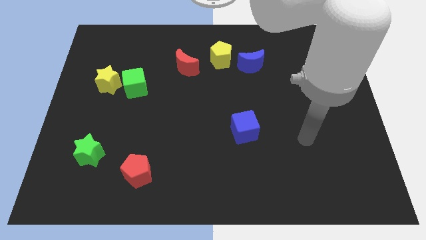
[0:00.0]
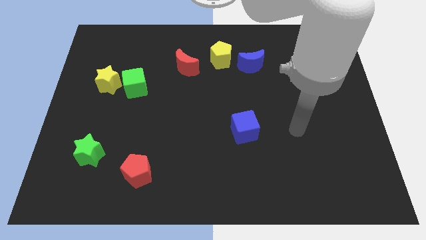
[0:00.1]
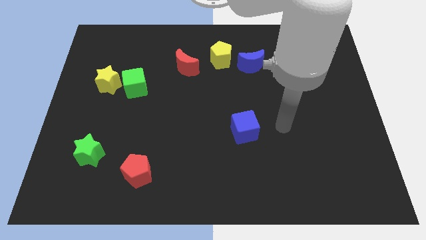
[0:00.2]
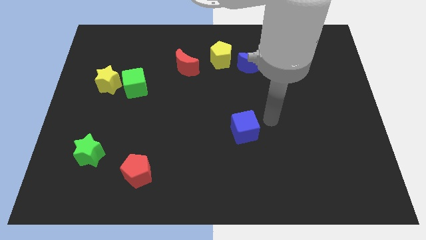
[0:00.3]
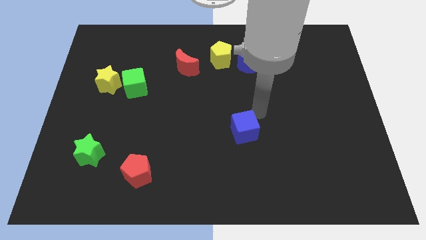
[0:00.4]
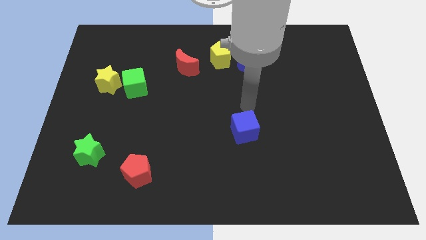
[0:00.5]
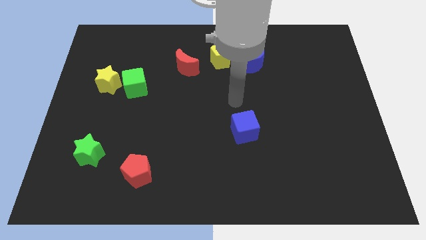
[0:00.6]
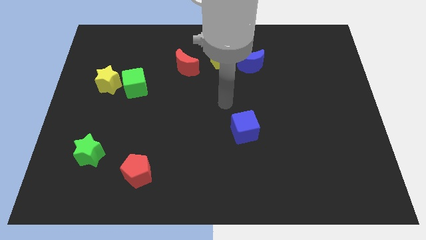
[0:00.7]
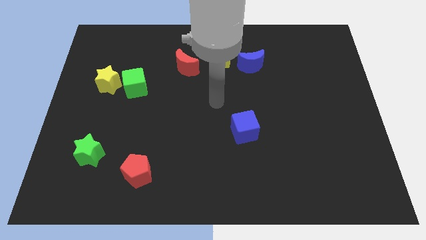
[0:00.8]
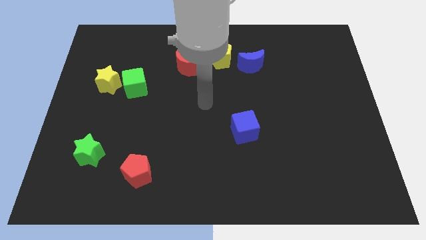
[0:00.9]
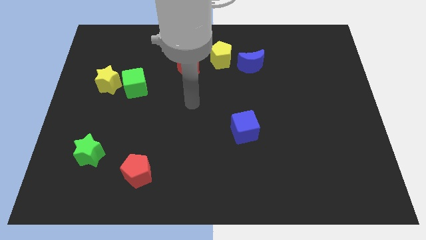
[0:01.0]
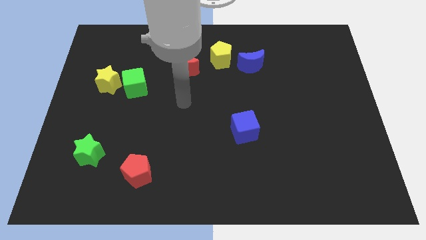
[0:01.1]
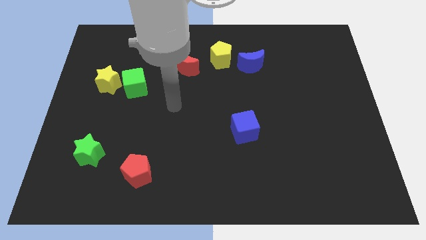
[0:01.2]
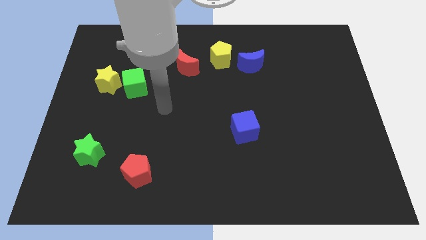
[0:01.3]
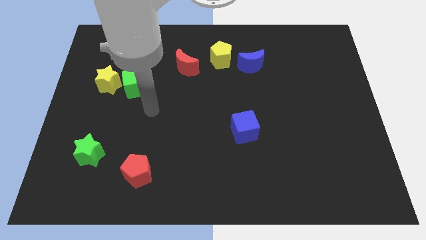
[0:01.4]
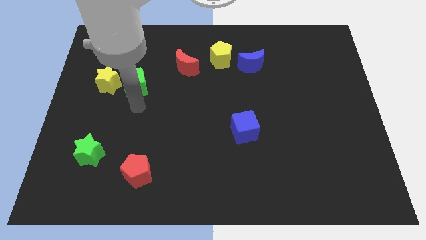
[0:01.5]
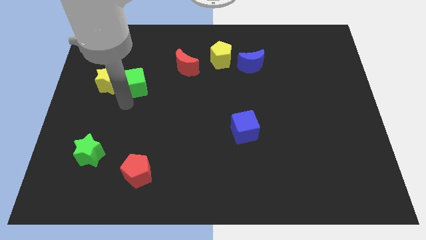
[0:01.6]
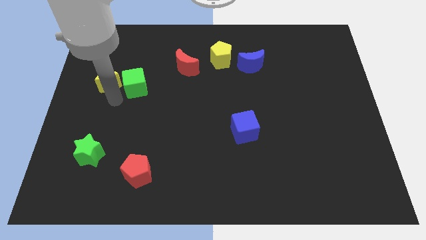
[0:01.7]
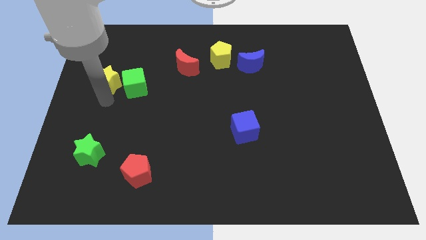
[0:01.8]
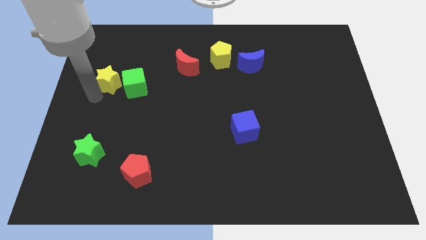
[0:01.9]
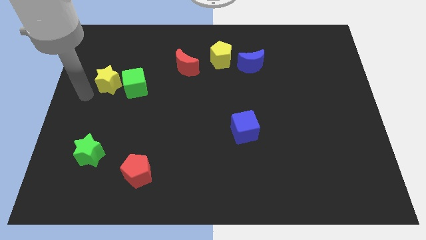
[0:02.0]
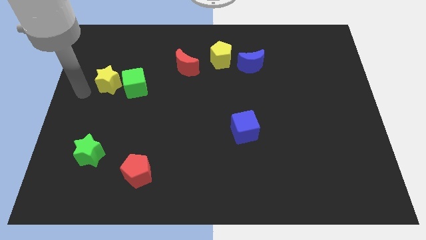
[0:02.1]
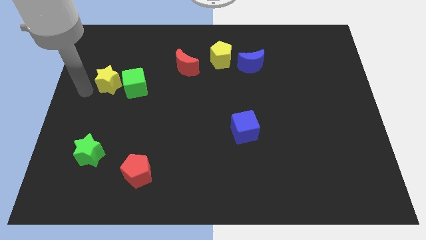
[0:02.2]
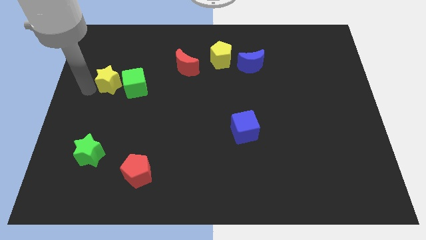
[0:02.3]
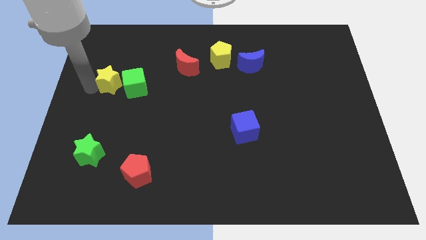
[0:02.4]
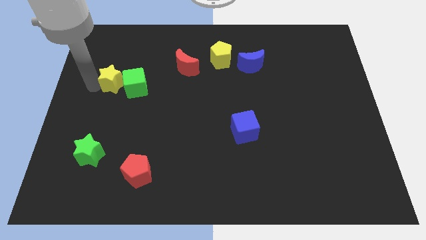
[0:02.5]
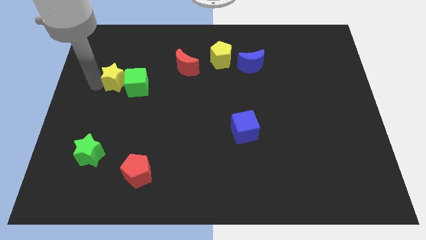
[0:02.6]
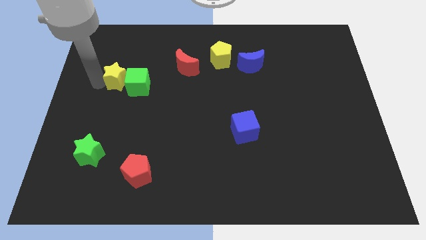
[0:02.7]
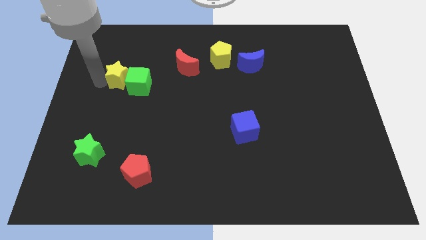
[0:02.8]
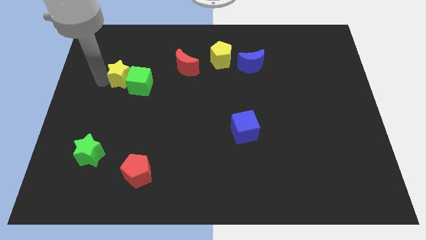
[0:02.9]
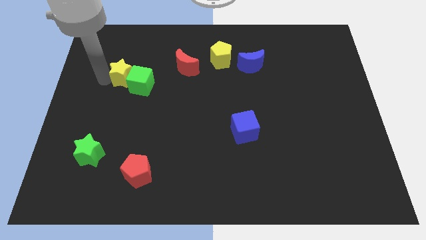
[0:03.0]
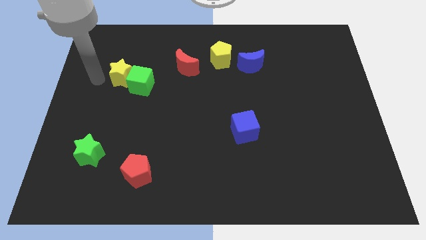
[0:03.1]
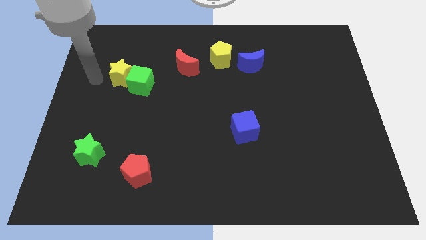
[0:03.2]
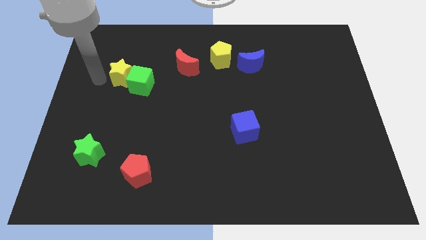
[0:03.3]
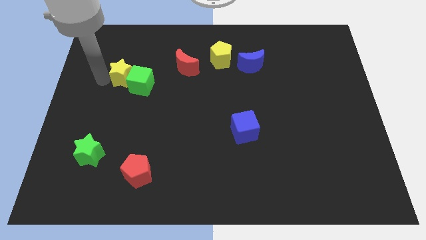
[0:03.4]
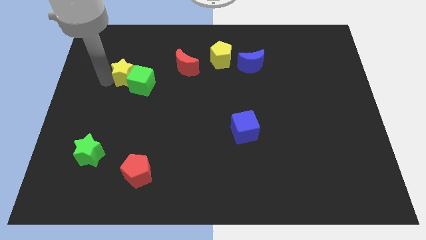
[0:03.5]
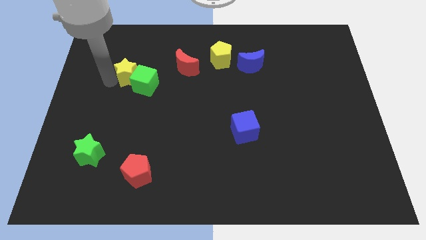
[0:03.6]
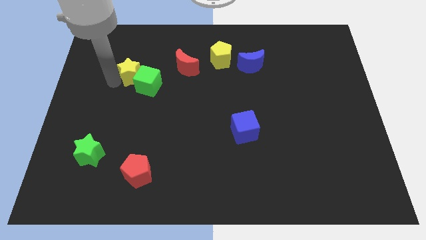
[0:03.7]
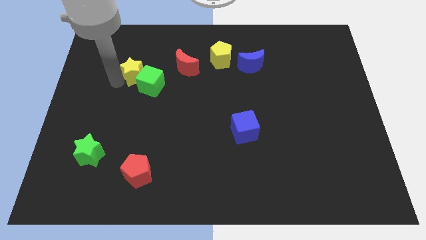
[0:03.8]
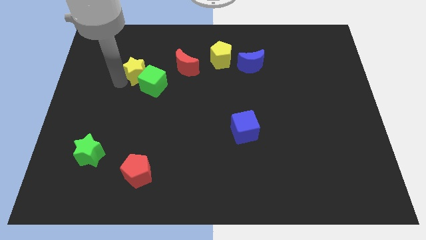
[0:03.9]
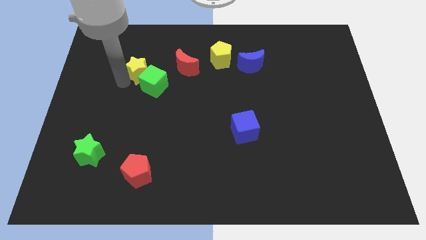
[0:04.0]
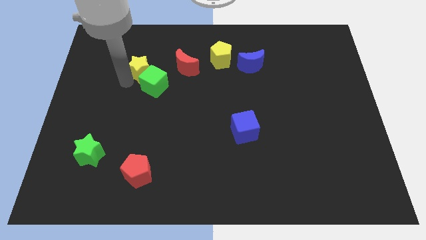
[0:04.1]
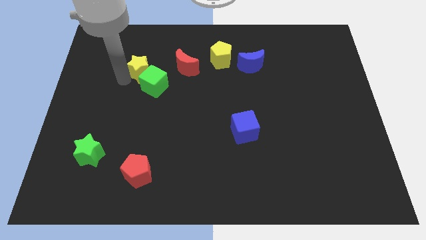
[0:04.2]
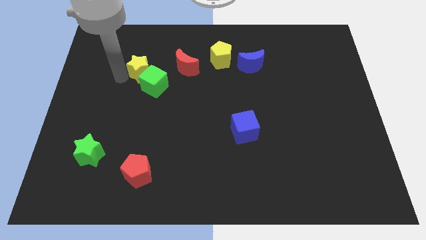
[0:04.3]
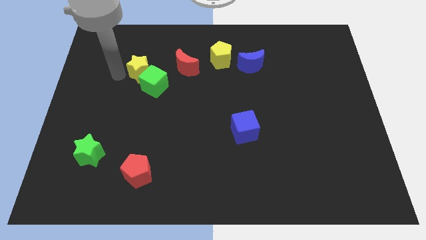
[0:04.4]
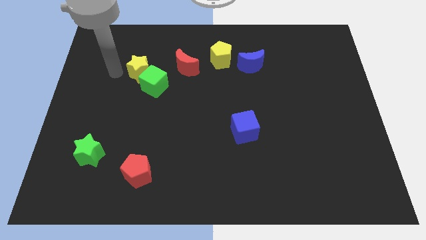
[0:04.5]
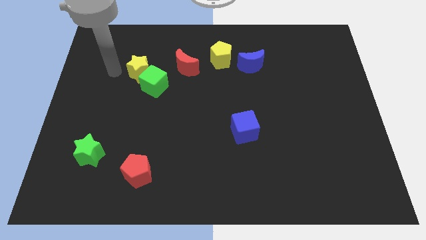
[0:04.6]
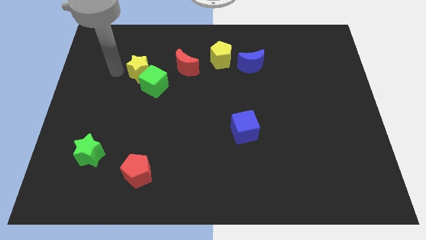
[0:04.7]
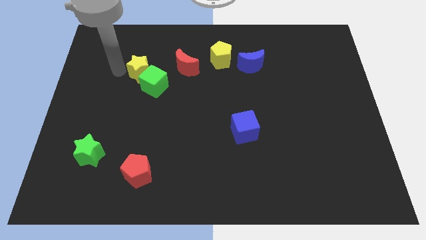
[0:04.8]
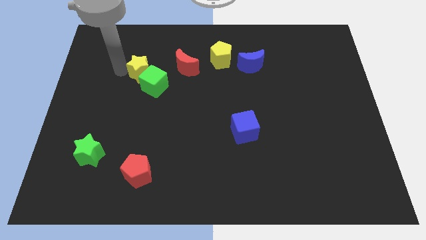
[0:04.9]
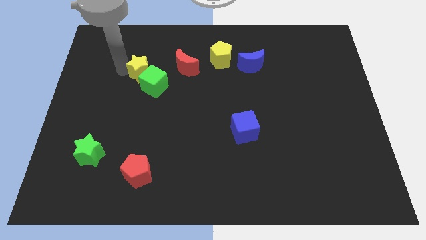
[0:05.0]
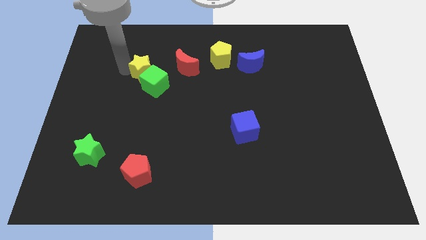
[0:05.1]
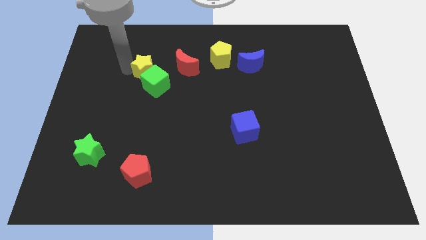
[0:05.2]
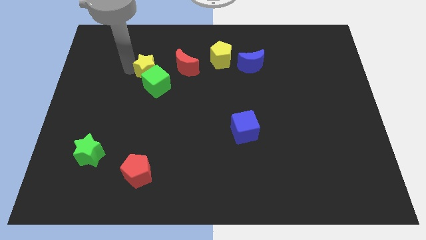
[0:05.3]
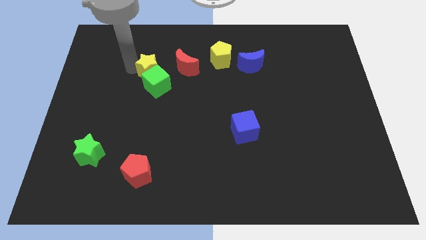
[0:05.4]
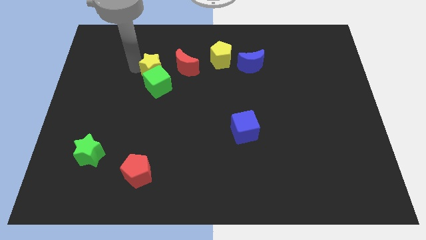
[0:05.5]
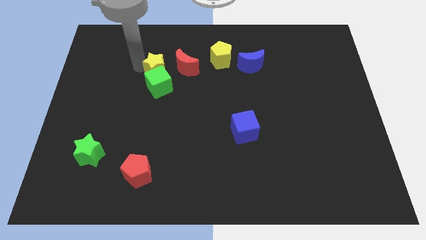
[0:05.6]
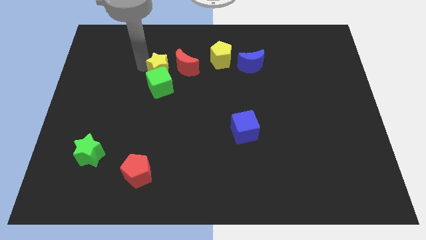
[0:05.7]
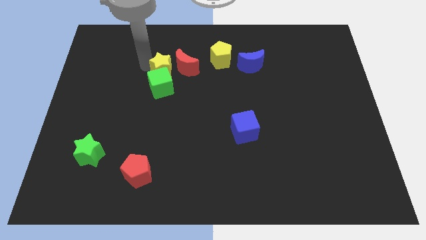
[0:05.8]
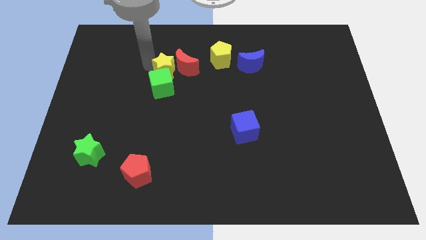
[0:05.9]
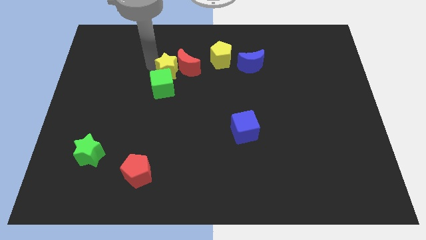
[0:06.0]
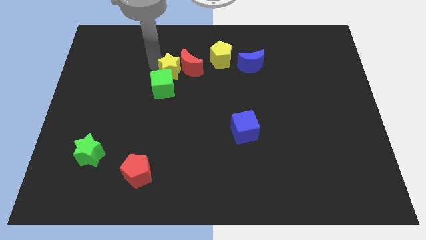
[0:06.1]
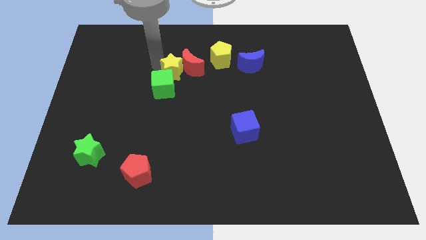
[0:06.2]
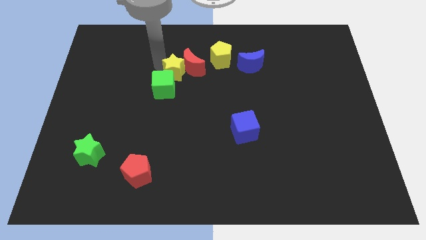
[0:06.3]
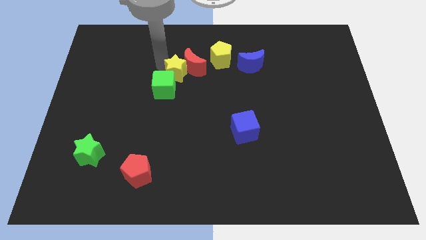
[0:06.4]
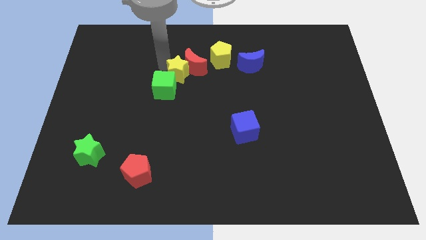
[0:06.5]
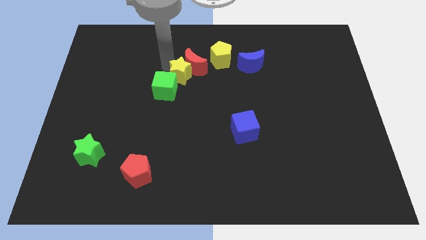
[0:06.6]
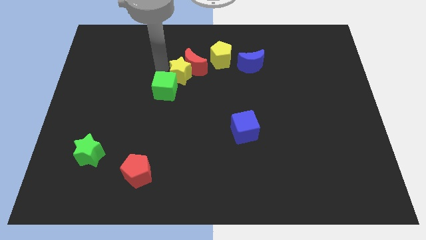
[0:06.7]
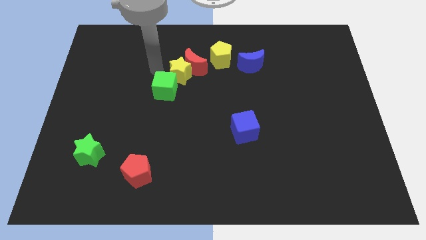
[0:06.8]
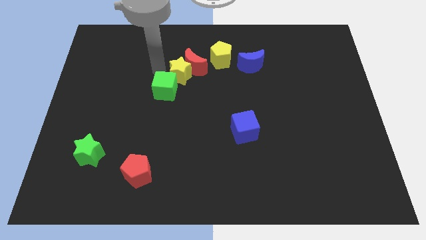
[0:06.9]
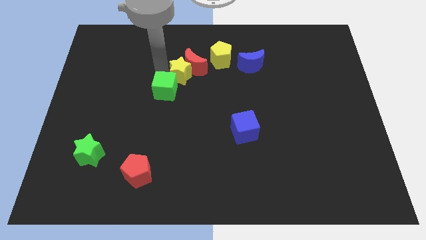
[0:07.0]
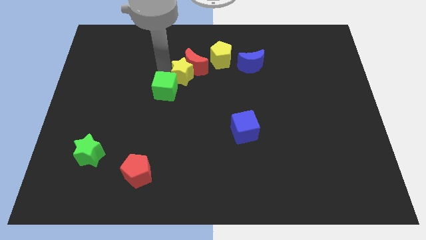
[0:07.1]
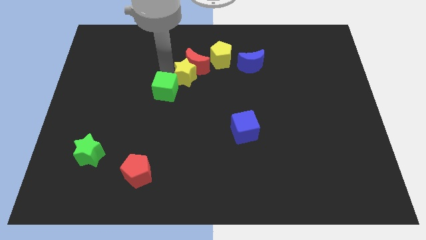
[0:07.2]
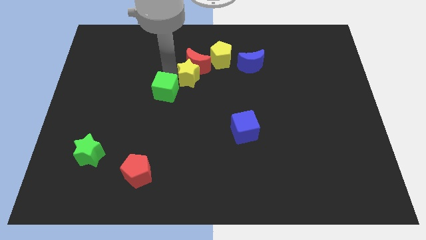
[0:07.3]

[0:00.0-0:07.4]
move the yellow star to the bottom right of the red moon
